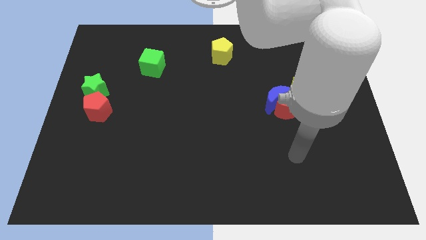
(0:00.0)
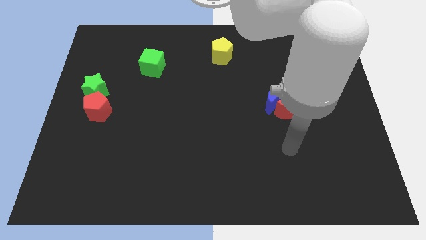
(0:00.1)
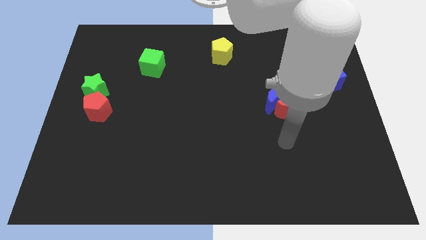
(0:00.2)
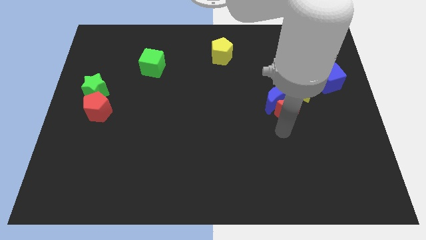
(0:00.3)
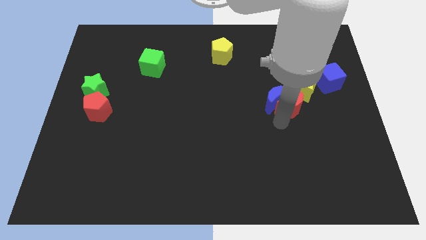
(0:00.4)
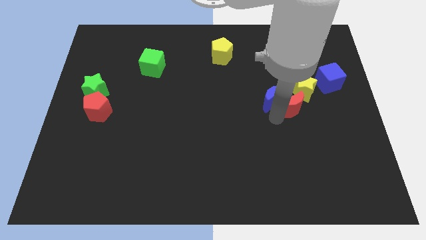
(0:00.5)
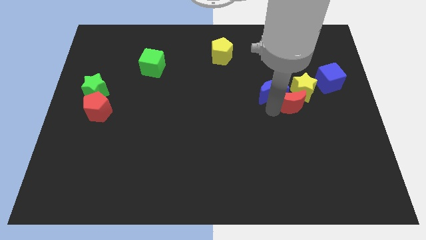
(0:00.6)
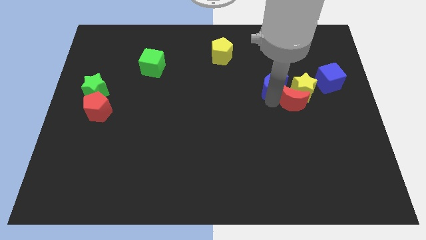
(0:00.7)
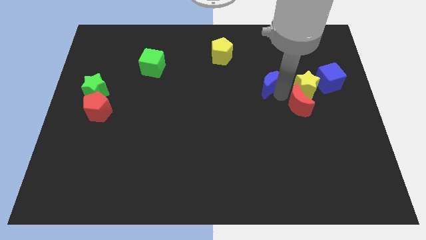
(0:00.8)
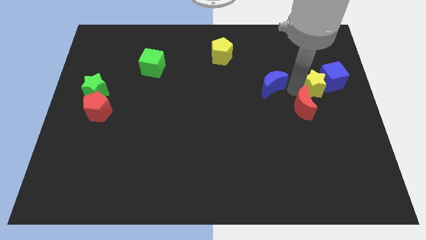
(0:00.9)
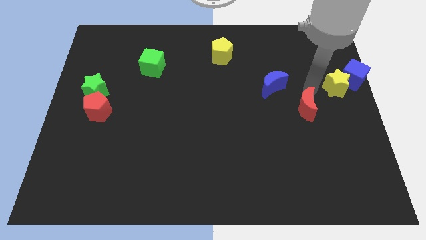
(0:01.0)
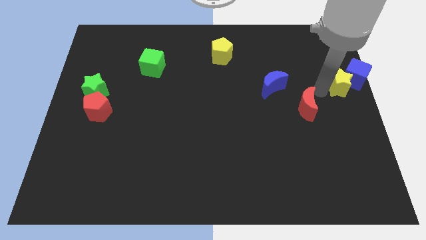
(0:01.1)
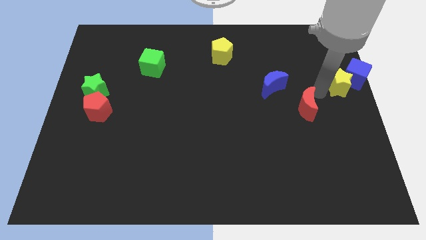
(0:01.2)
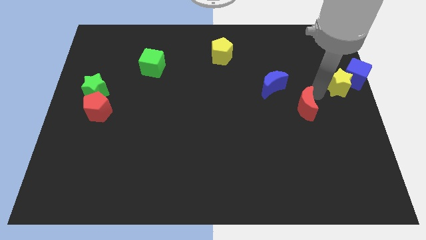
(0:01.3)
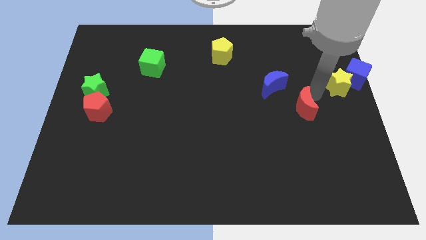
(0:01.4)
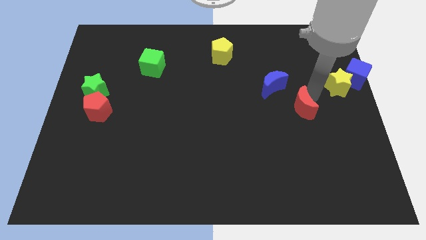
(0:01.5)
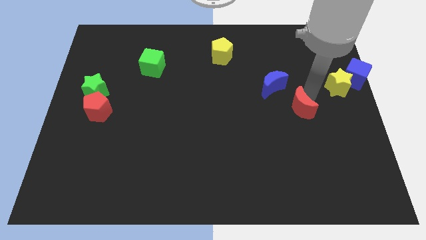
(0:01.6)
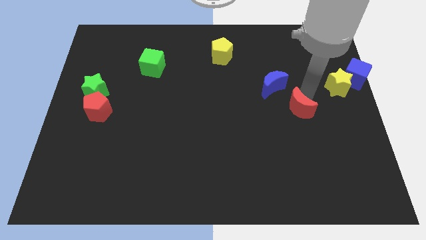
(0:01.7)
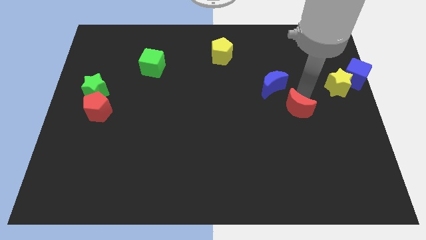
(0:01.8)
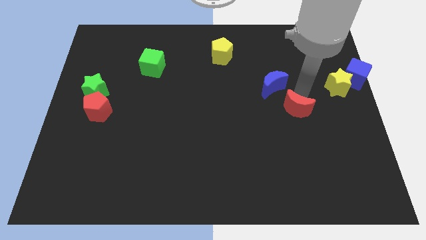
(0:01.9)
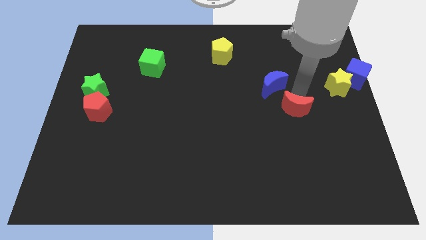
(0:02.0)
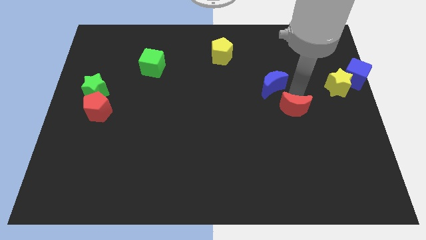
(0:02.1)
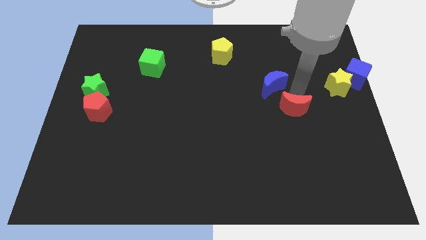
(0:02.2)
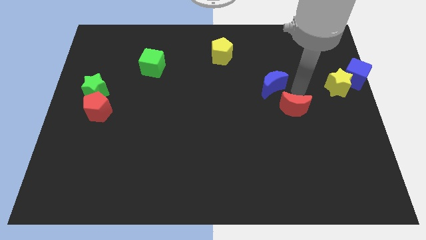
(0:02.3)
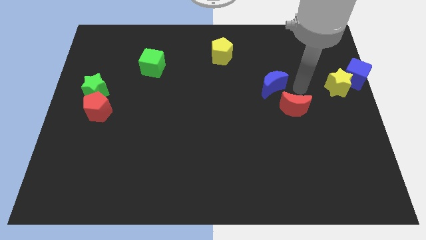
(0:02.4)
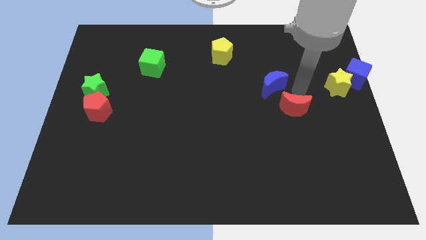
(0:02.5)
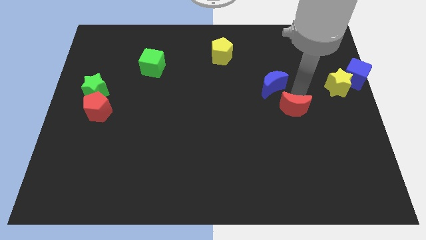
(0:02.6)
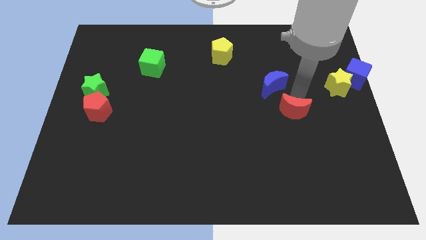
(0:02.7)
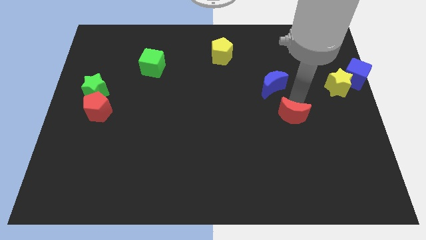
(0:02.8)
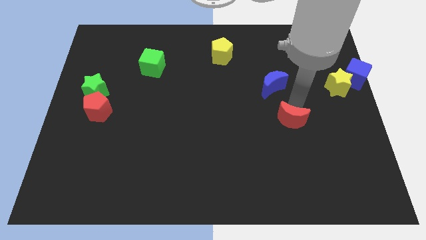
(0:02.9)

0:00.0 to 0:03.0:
separate the red moon from the blue moon and yellow star

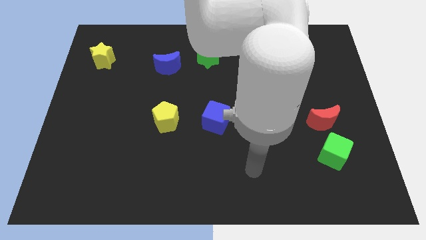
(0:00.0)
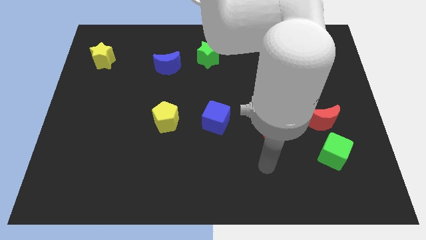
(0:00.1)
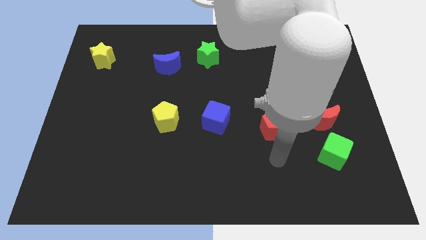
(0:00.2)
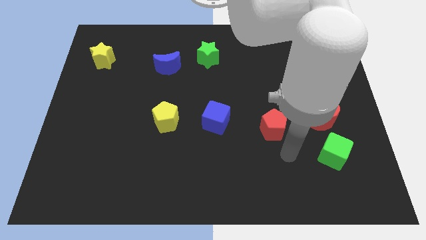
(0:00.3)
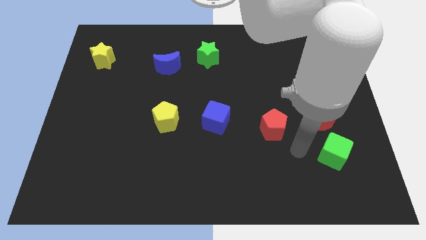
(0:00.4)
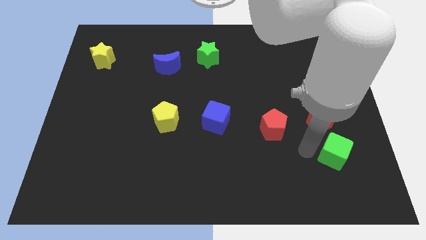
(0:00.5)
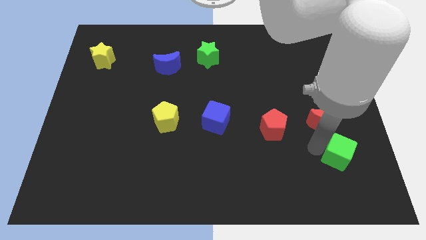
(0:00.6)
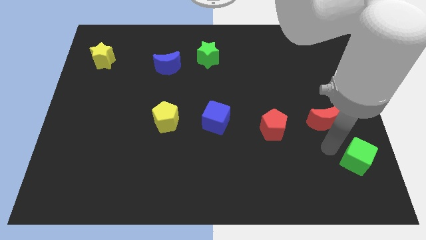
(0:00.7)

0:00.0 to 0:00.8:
move the red moon away from the green cube

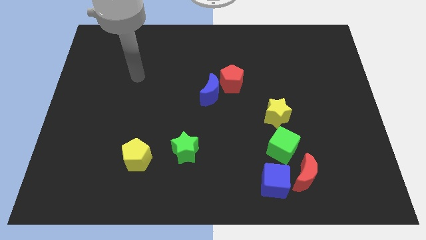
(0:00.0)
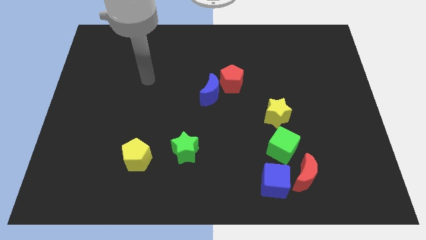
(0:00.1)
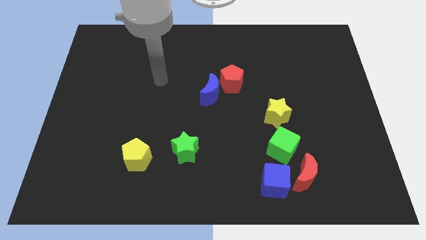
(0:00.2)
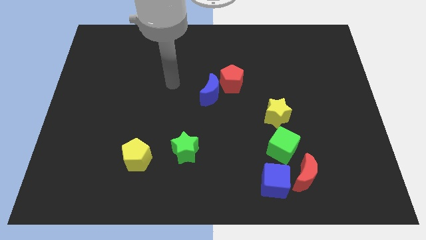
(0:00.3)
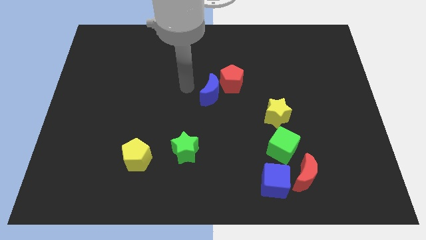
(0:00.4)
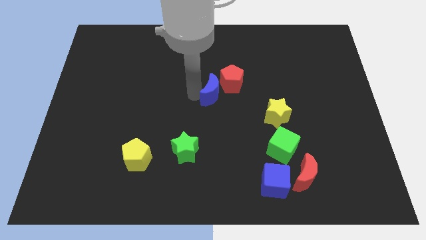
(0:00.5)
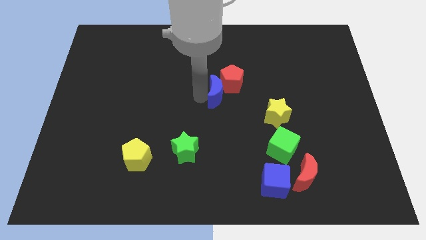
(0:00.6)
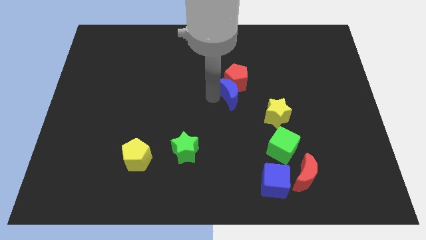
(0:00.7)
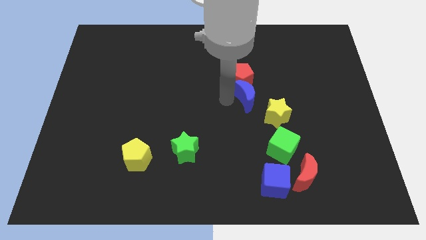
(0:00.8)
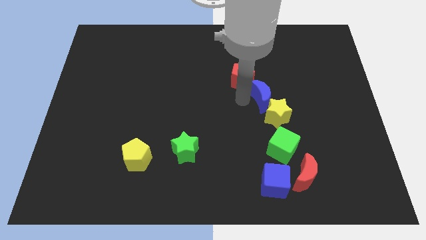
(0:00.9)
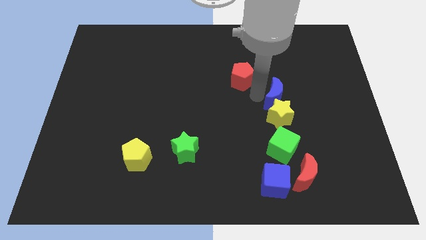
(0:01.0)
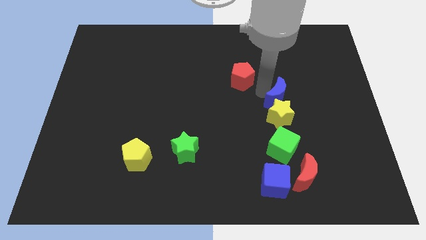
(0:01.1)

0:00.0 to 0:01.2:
separate the red pentagon from the blue moon

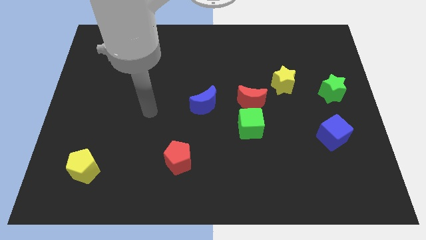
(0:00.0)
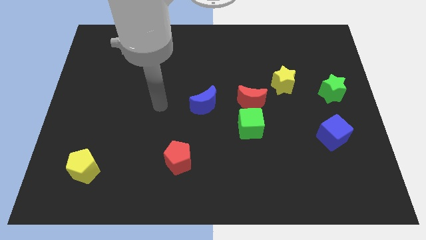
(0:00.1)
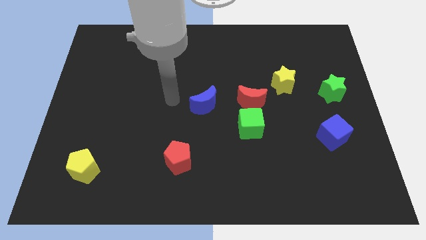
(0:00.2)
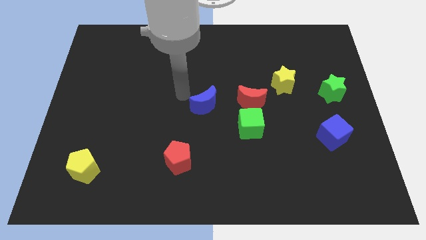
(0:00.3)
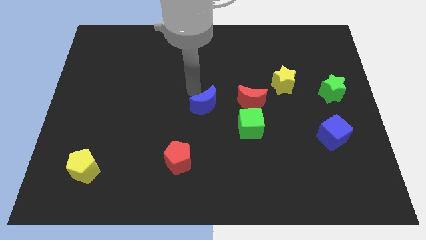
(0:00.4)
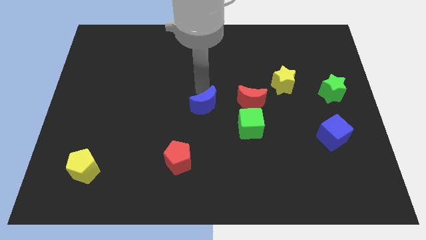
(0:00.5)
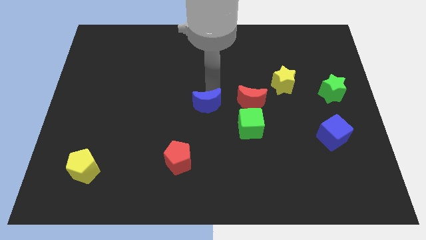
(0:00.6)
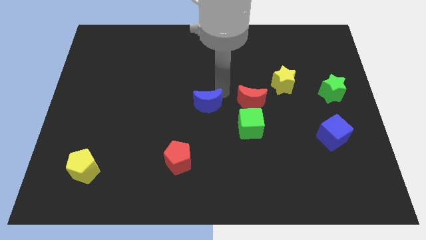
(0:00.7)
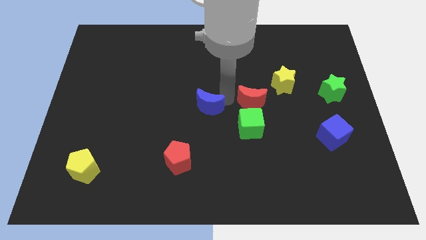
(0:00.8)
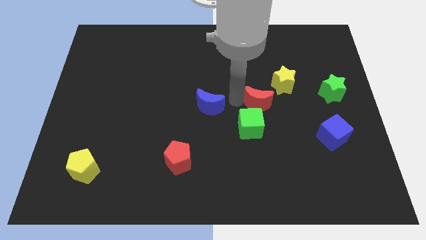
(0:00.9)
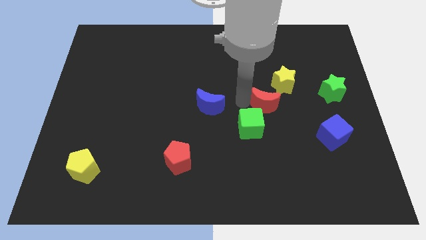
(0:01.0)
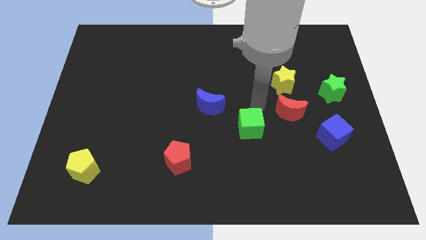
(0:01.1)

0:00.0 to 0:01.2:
separate the green cube from the red moon

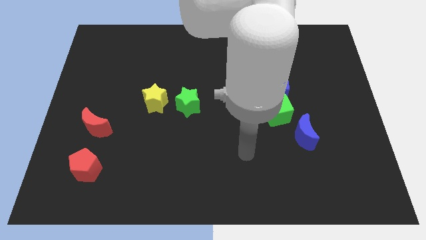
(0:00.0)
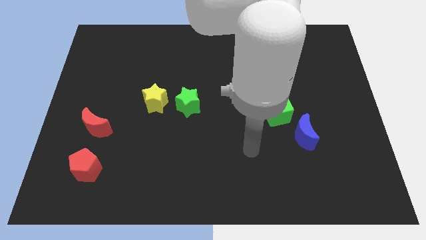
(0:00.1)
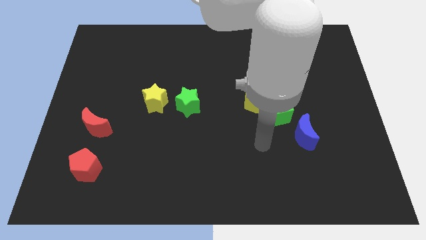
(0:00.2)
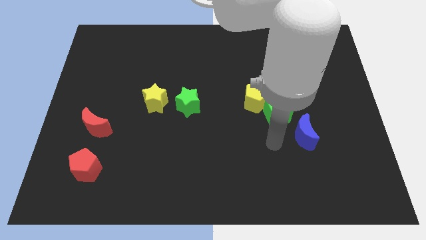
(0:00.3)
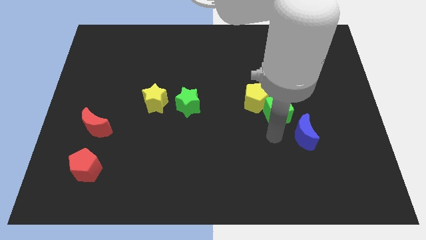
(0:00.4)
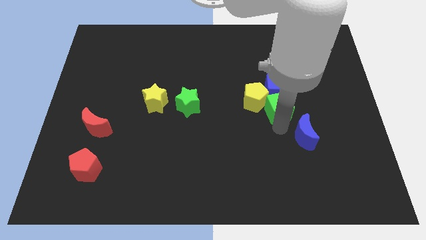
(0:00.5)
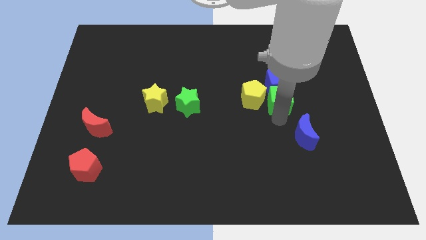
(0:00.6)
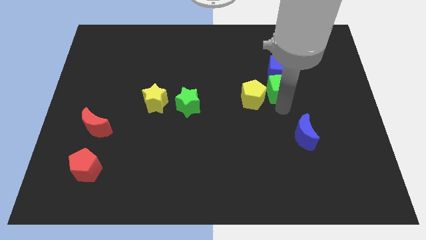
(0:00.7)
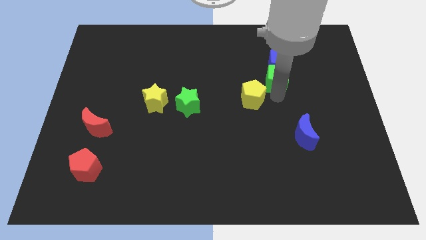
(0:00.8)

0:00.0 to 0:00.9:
pull the yellow pentagon apart from the green cube and blue cube

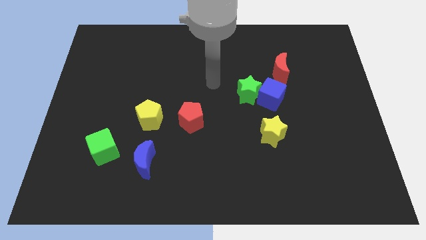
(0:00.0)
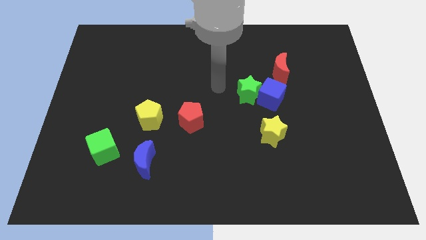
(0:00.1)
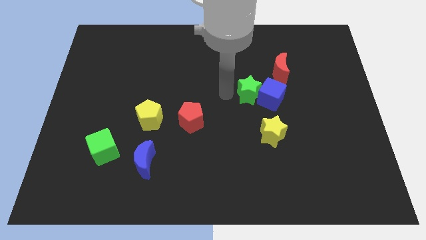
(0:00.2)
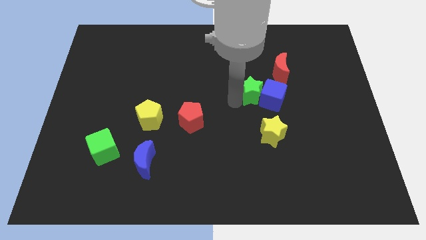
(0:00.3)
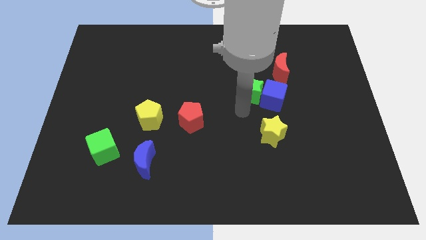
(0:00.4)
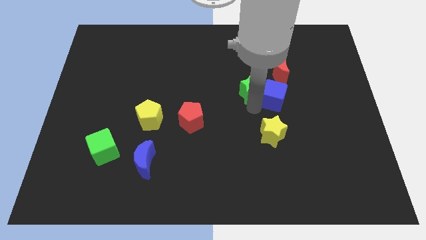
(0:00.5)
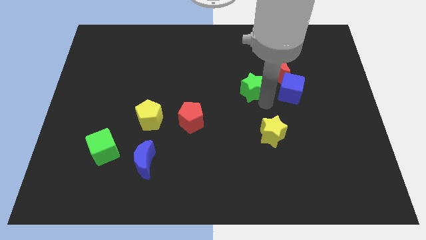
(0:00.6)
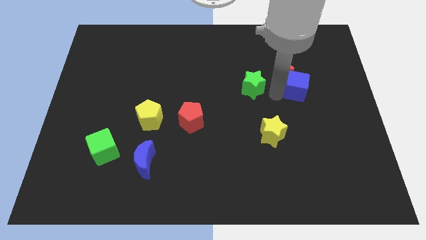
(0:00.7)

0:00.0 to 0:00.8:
separate the green star from the blue cube

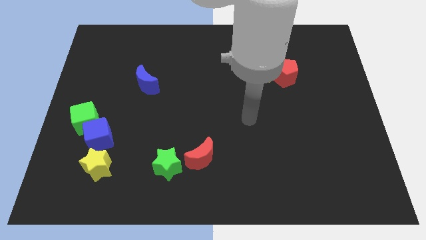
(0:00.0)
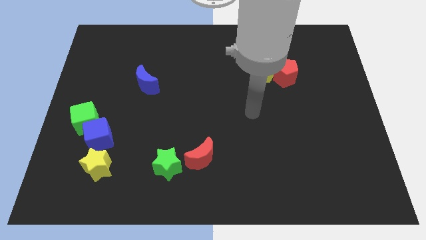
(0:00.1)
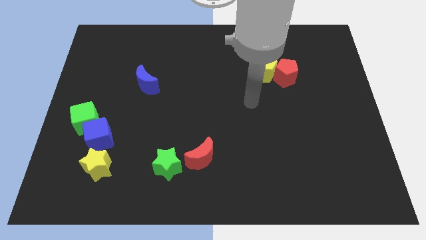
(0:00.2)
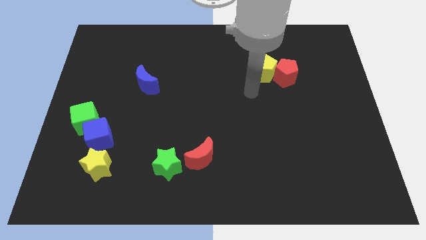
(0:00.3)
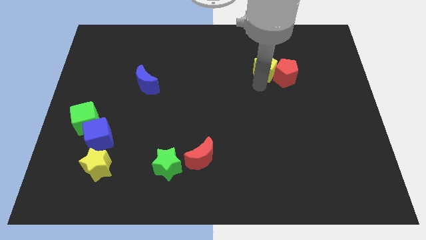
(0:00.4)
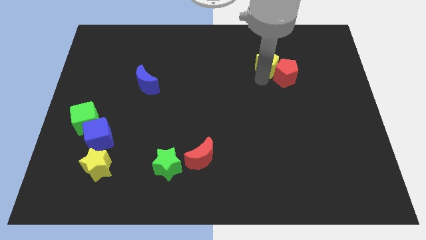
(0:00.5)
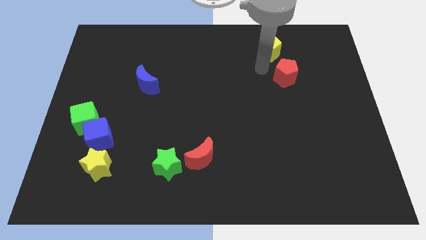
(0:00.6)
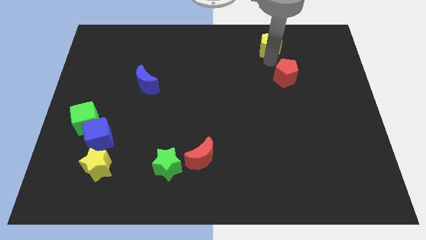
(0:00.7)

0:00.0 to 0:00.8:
move the red pentagon away from the yellow pentagon

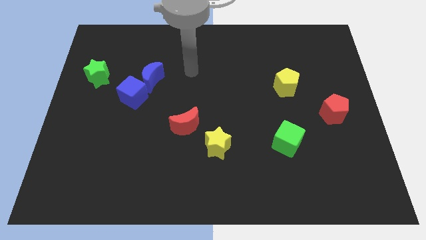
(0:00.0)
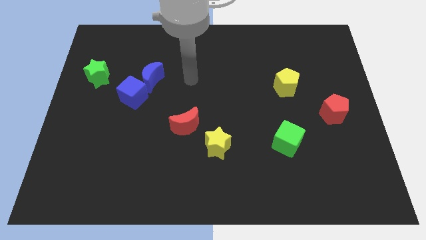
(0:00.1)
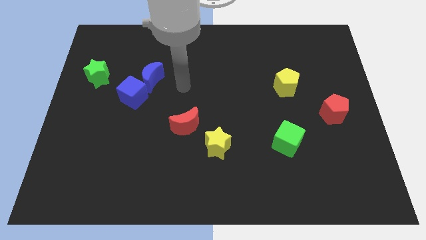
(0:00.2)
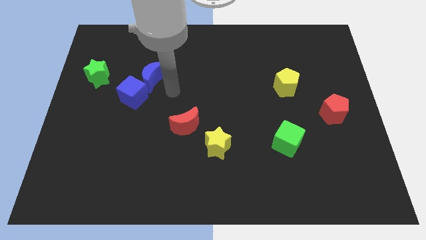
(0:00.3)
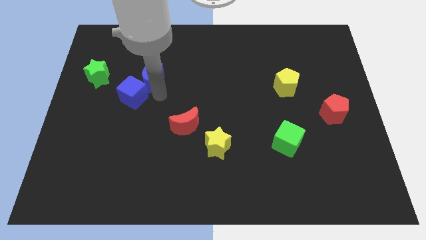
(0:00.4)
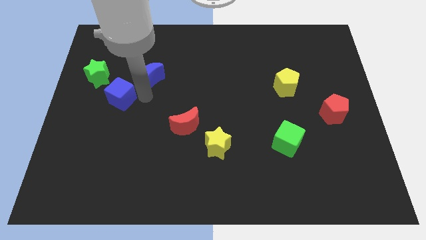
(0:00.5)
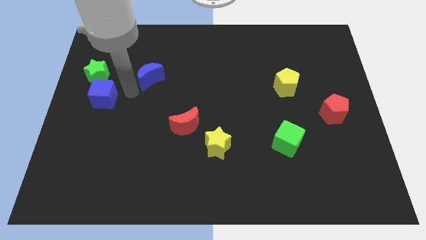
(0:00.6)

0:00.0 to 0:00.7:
separate the blue moon from the blue cube
